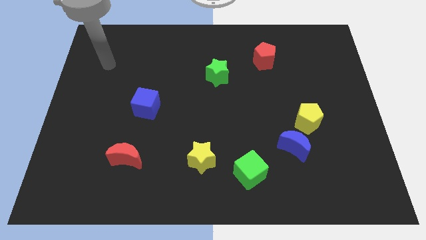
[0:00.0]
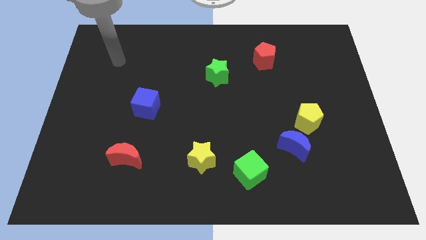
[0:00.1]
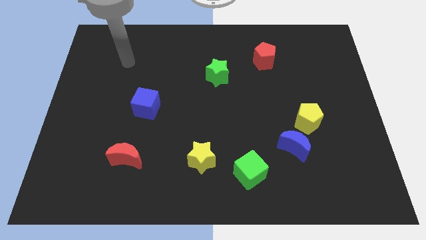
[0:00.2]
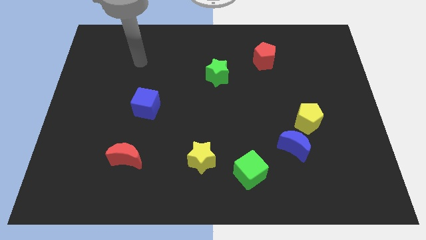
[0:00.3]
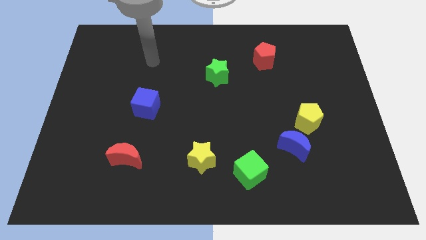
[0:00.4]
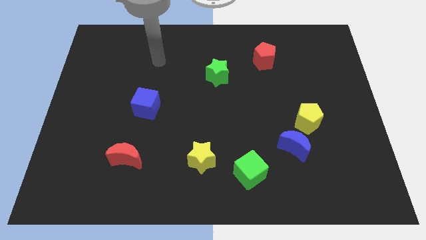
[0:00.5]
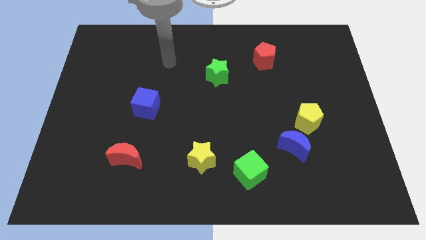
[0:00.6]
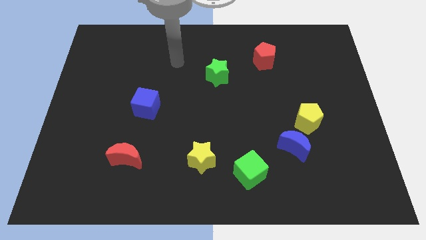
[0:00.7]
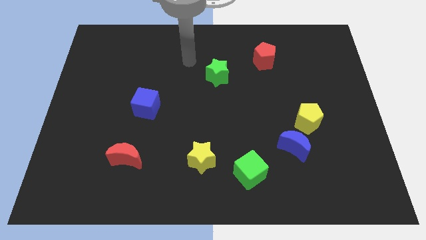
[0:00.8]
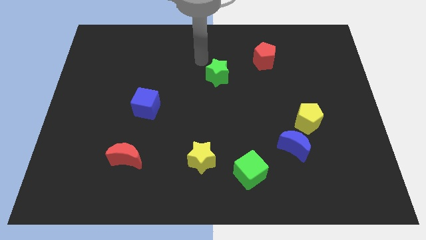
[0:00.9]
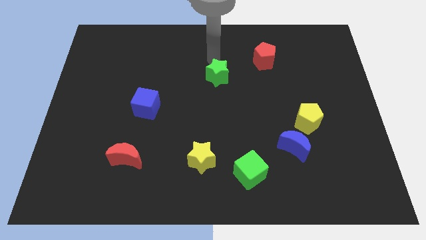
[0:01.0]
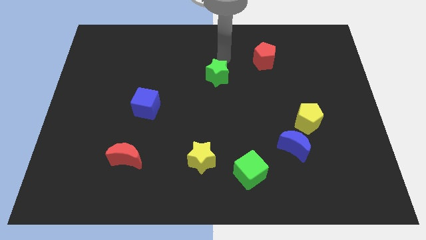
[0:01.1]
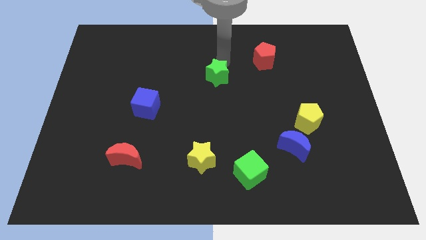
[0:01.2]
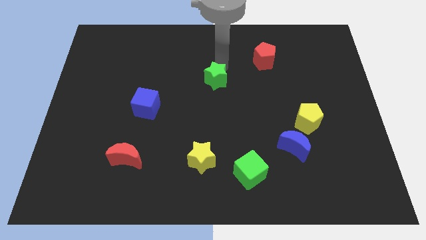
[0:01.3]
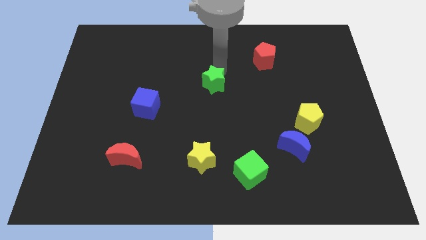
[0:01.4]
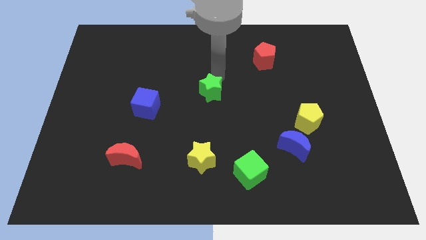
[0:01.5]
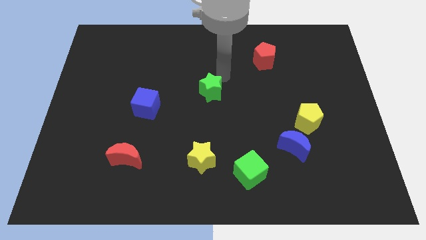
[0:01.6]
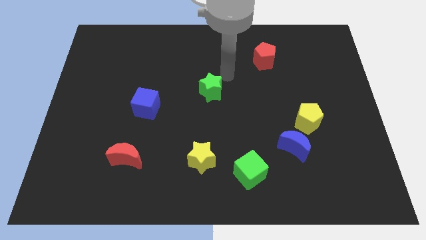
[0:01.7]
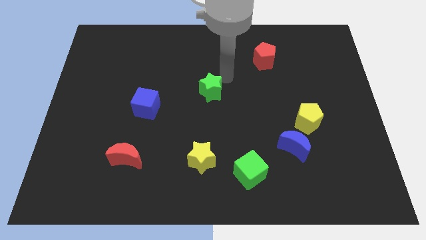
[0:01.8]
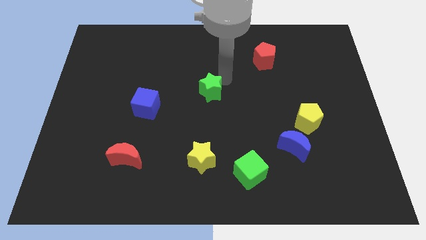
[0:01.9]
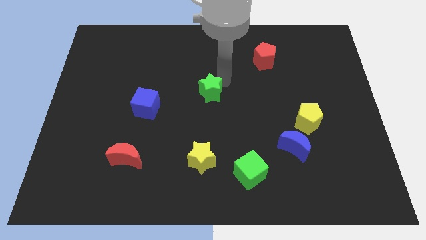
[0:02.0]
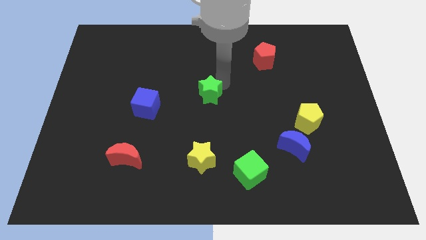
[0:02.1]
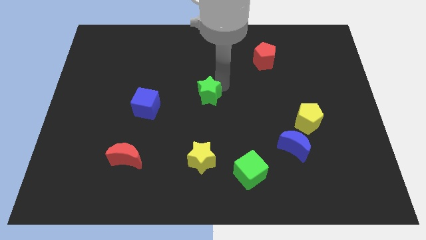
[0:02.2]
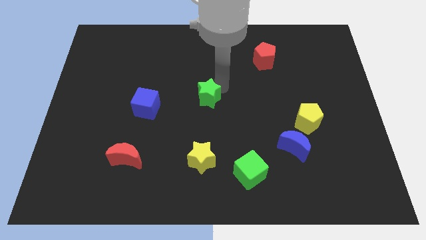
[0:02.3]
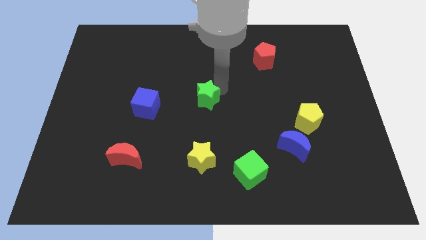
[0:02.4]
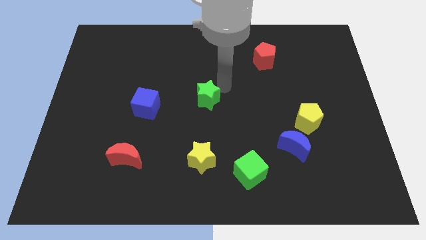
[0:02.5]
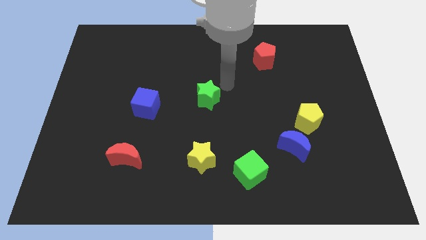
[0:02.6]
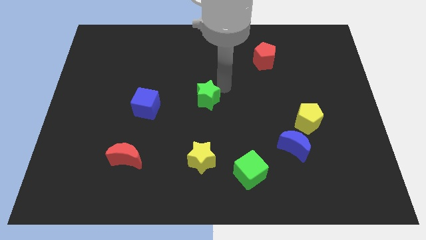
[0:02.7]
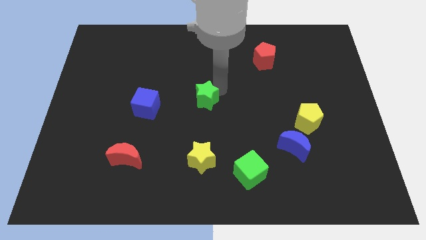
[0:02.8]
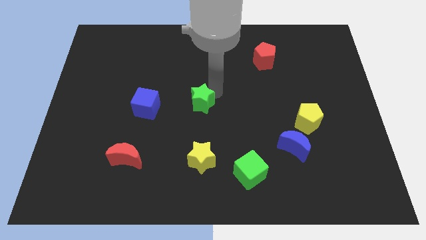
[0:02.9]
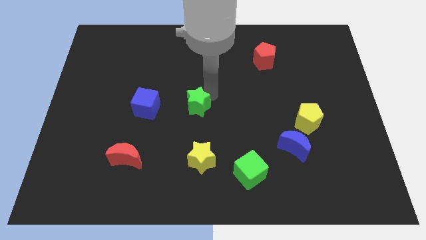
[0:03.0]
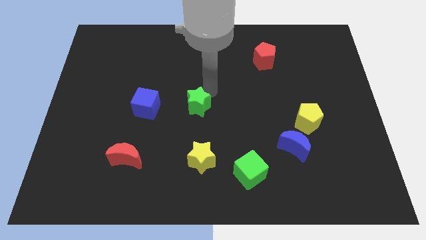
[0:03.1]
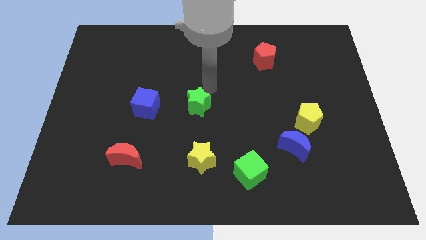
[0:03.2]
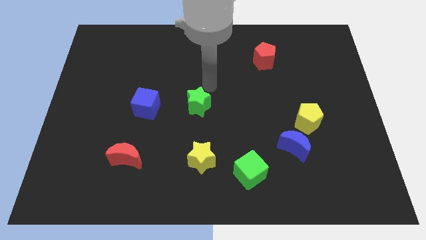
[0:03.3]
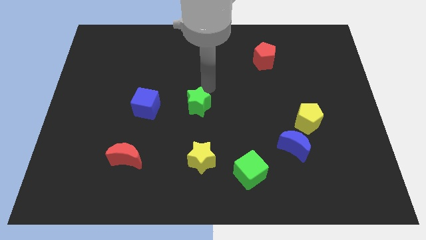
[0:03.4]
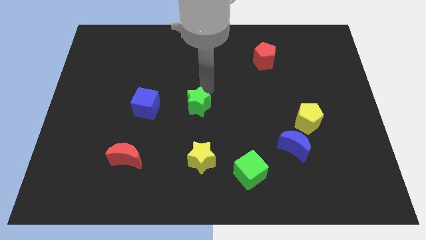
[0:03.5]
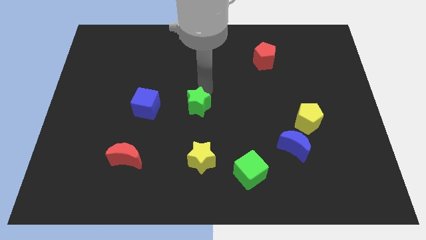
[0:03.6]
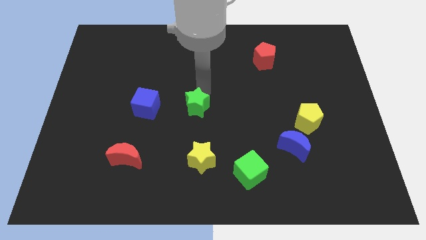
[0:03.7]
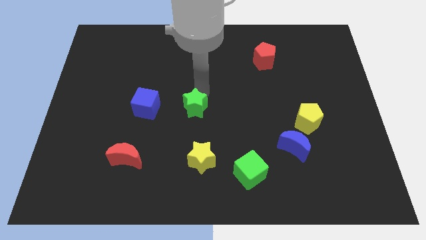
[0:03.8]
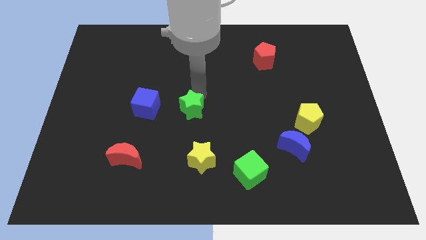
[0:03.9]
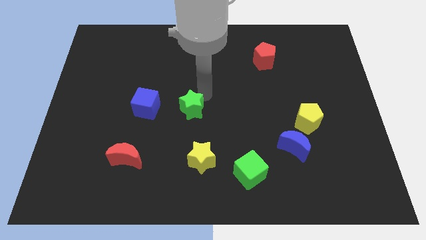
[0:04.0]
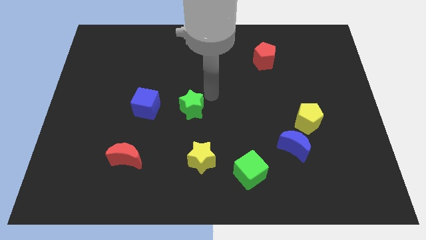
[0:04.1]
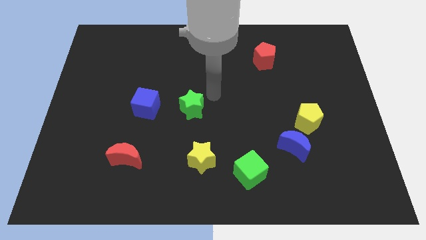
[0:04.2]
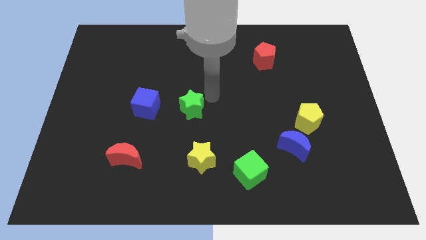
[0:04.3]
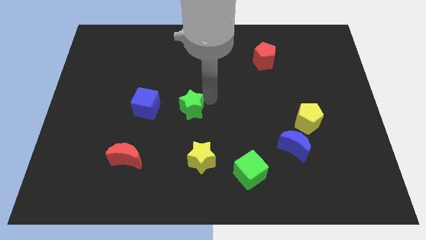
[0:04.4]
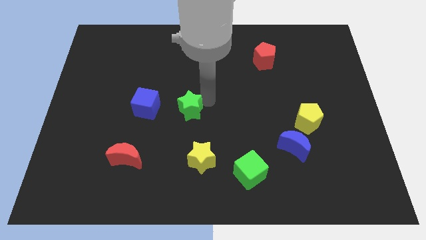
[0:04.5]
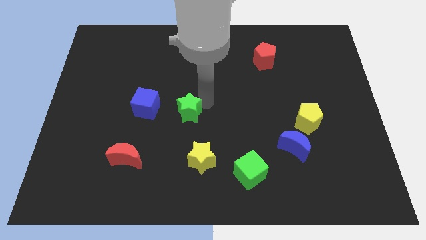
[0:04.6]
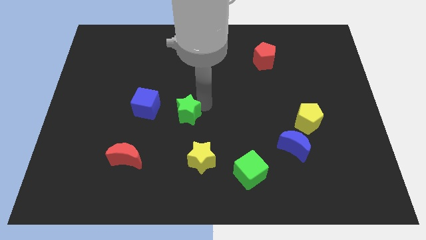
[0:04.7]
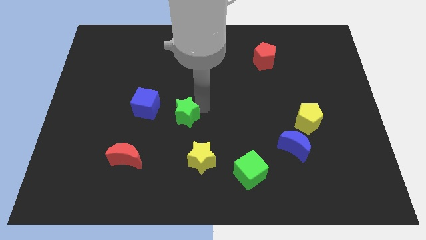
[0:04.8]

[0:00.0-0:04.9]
move the green star diagonally down and to the right of the blue cube

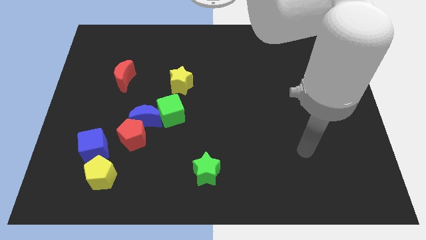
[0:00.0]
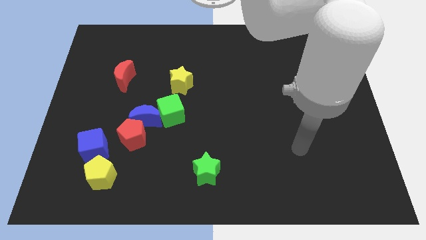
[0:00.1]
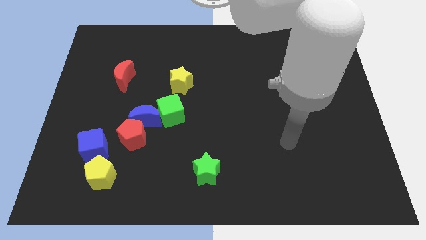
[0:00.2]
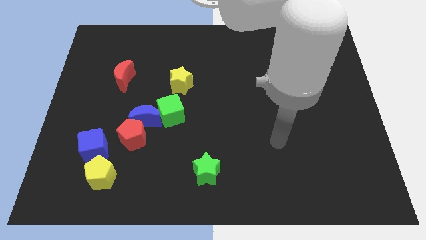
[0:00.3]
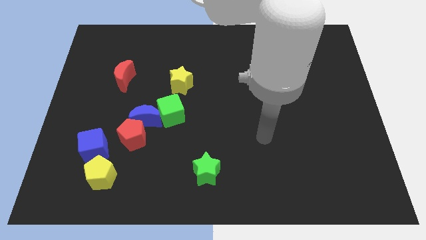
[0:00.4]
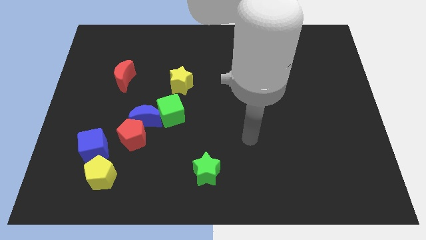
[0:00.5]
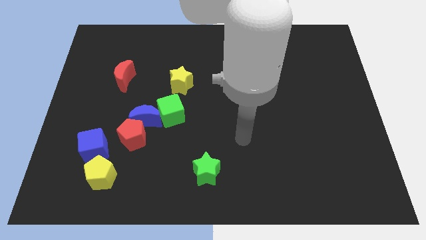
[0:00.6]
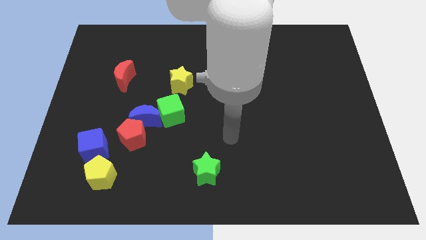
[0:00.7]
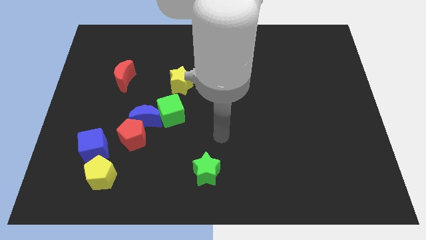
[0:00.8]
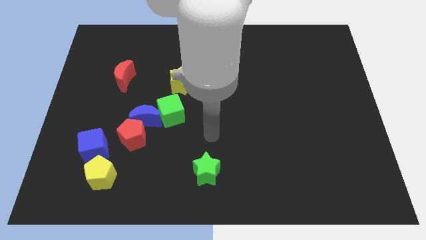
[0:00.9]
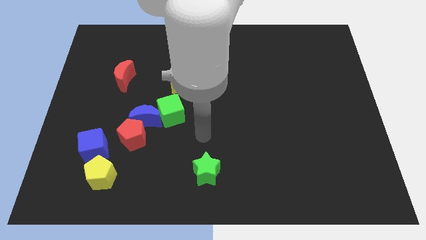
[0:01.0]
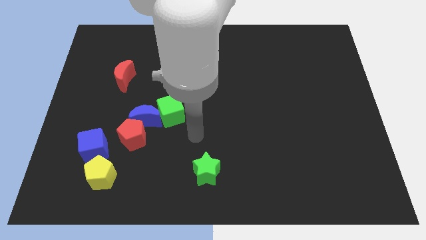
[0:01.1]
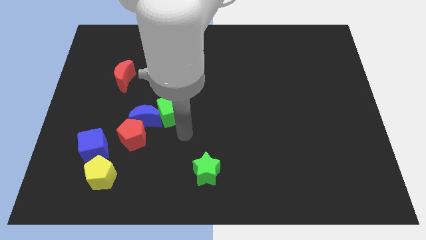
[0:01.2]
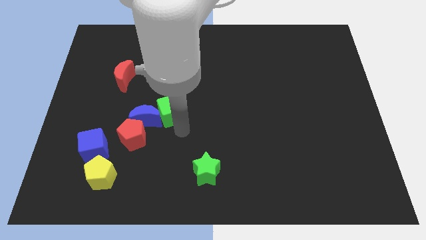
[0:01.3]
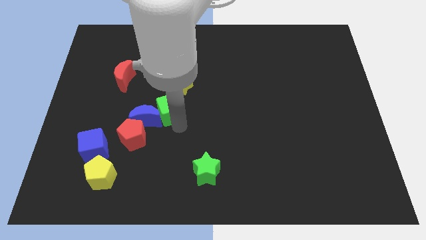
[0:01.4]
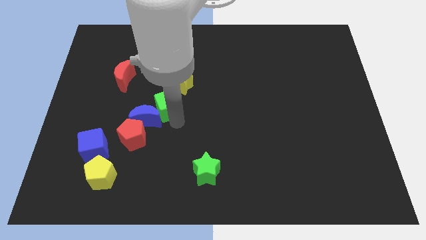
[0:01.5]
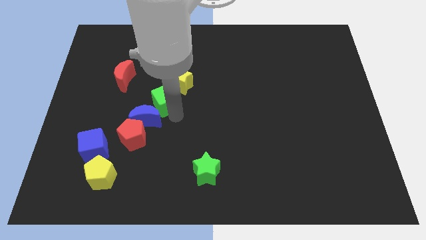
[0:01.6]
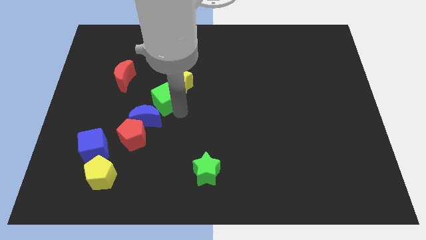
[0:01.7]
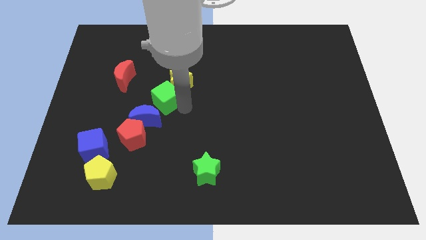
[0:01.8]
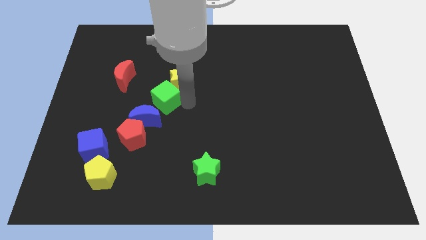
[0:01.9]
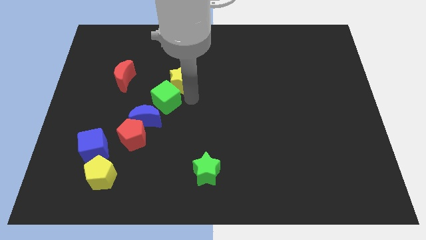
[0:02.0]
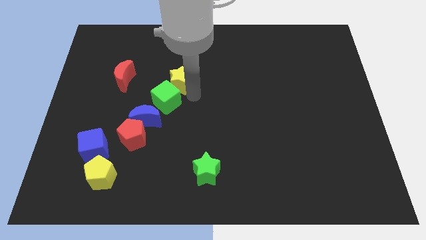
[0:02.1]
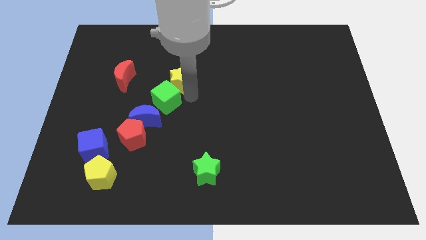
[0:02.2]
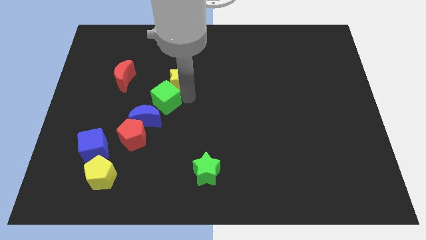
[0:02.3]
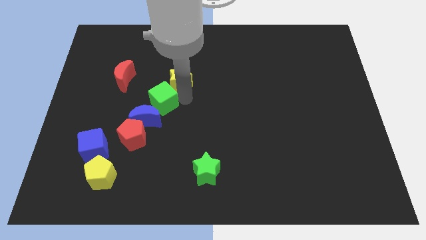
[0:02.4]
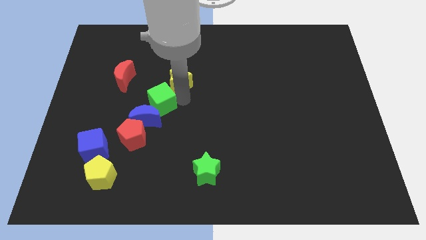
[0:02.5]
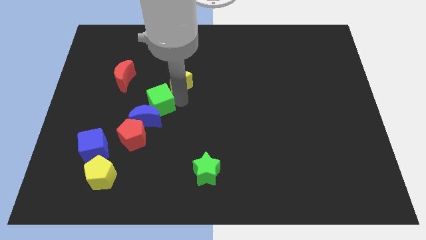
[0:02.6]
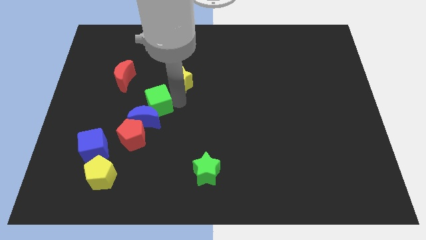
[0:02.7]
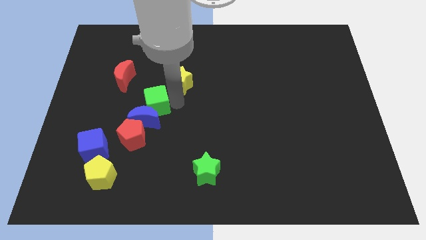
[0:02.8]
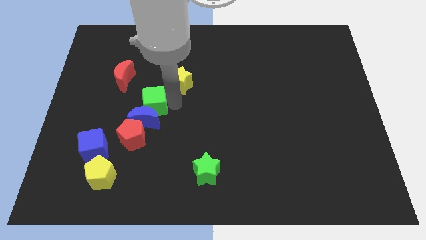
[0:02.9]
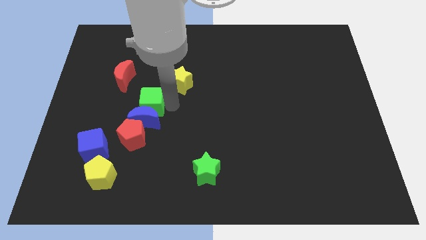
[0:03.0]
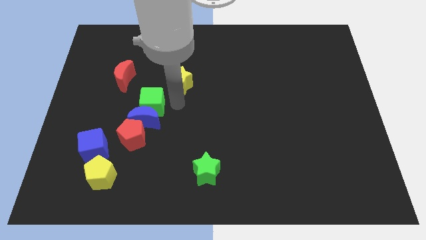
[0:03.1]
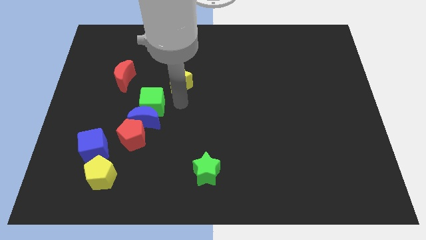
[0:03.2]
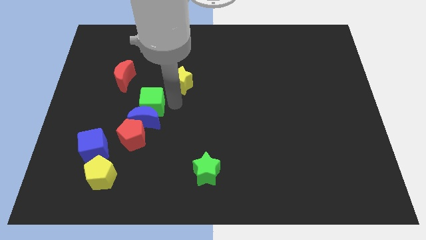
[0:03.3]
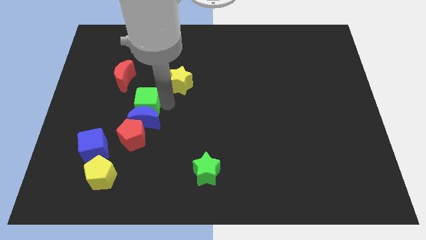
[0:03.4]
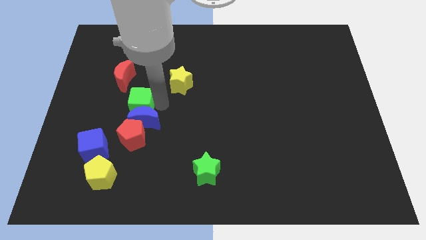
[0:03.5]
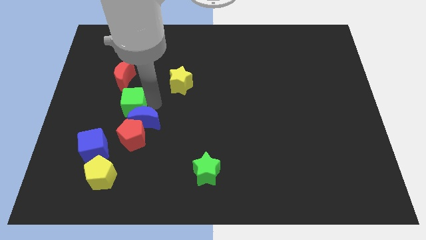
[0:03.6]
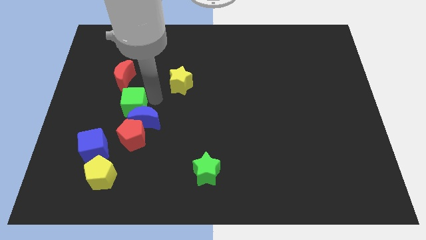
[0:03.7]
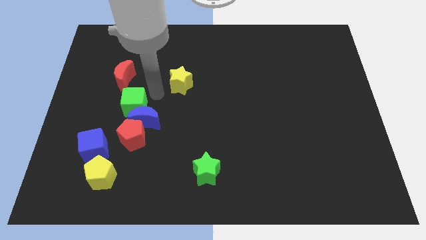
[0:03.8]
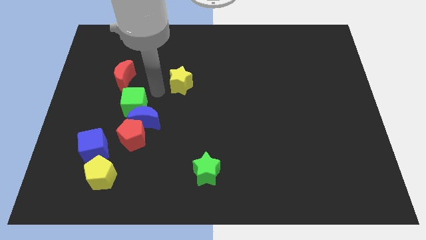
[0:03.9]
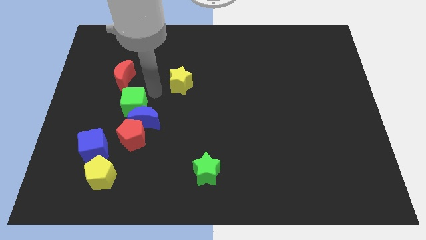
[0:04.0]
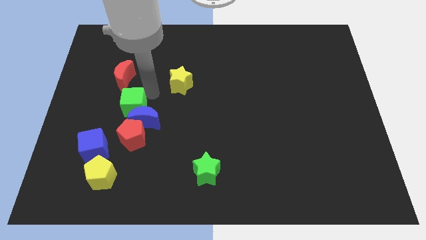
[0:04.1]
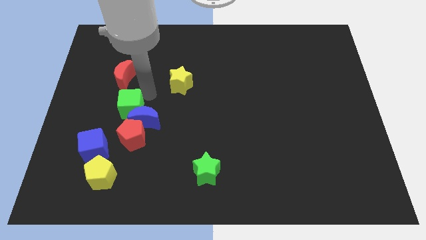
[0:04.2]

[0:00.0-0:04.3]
put the green cube to the top left of the red pentagon
